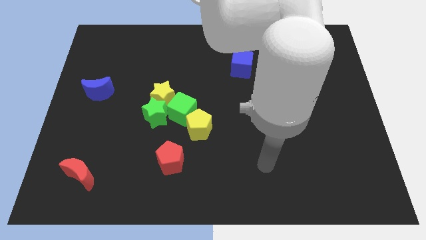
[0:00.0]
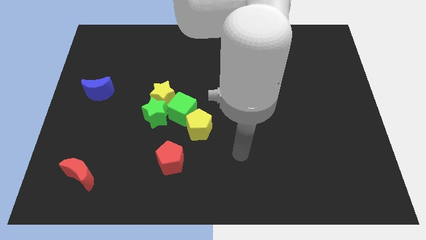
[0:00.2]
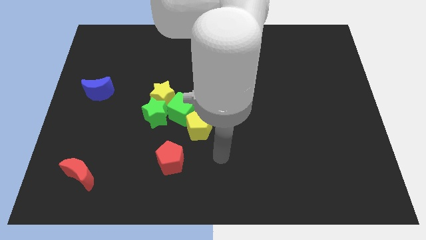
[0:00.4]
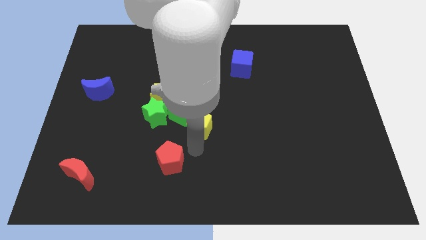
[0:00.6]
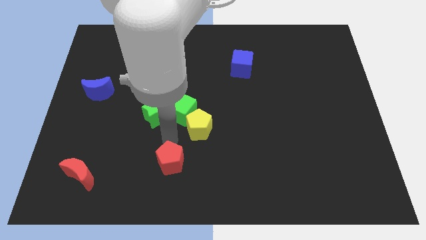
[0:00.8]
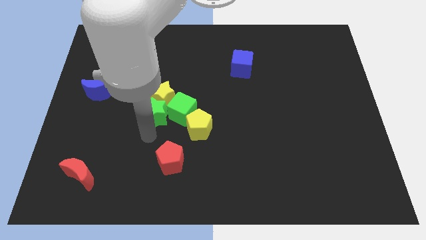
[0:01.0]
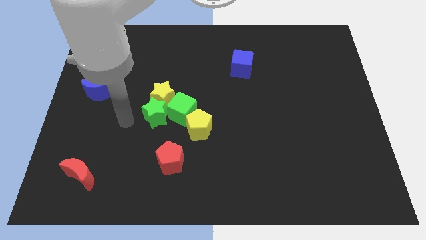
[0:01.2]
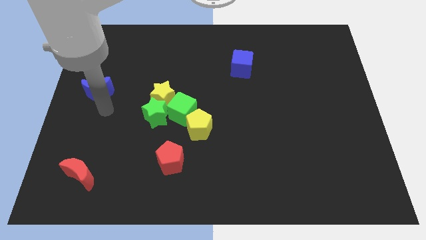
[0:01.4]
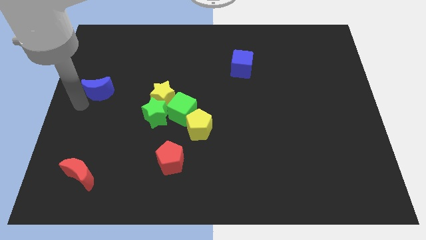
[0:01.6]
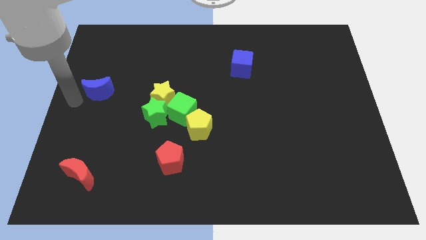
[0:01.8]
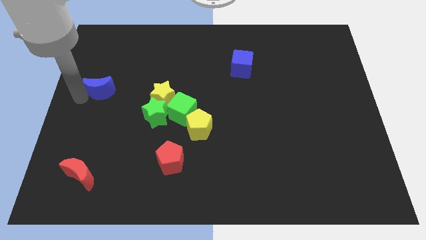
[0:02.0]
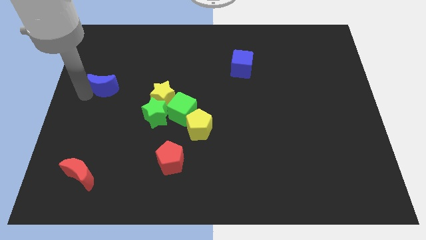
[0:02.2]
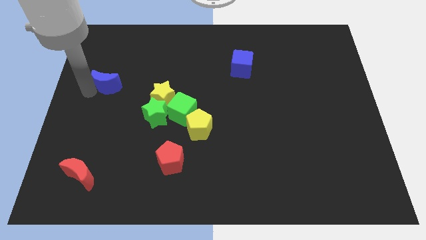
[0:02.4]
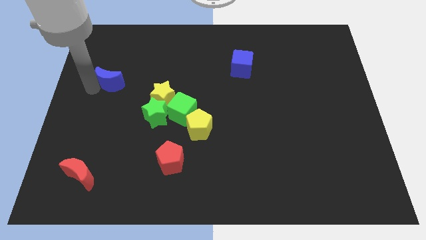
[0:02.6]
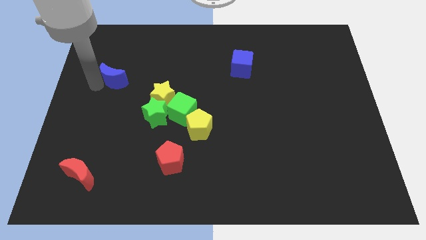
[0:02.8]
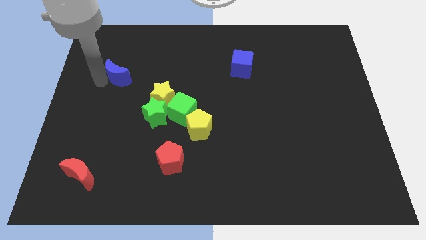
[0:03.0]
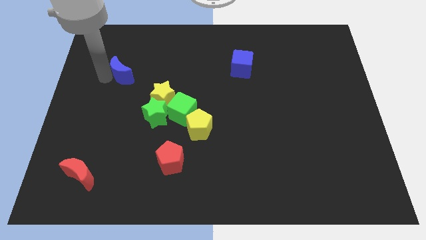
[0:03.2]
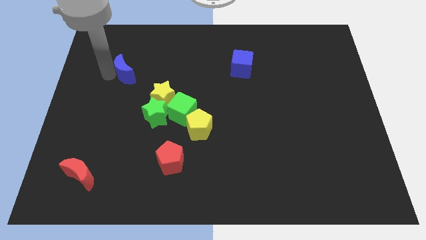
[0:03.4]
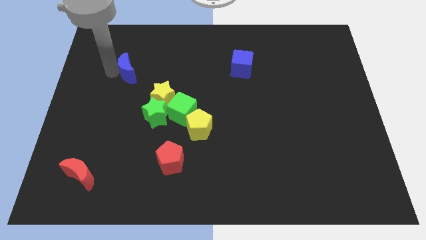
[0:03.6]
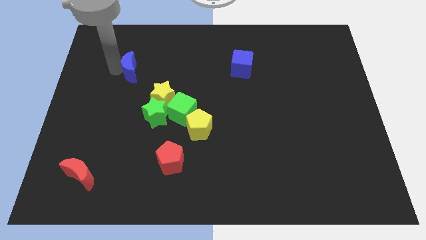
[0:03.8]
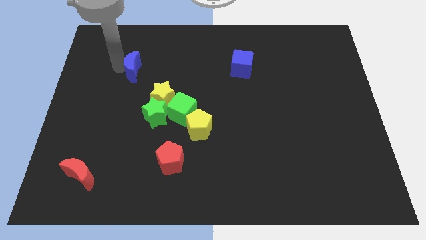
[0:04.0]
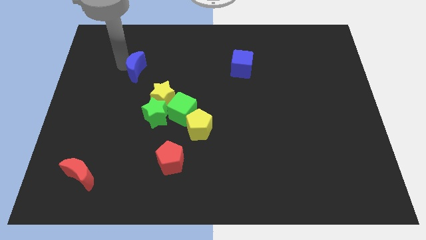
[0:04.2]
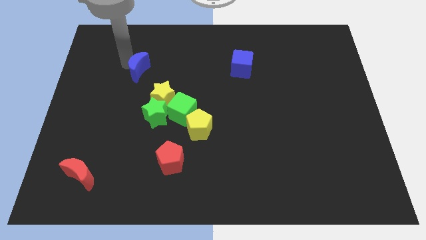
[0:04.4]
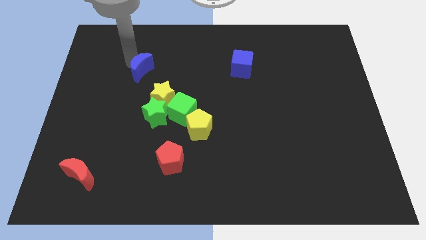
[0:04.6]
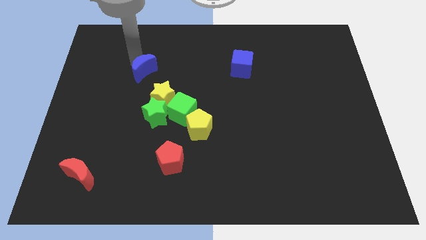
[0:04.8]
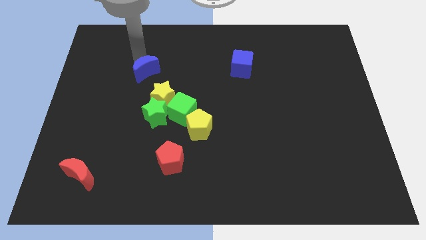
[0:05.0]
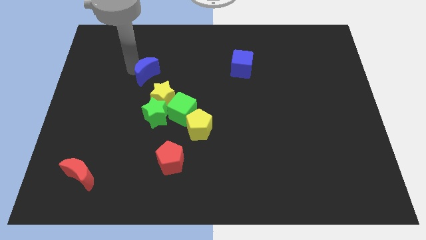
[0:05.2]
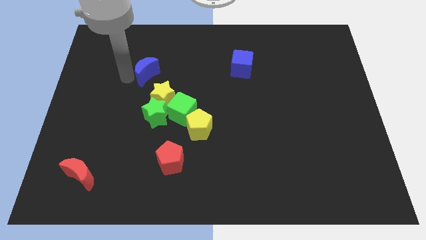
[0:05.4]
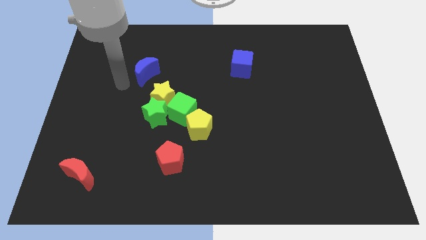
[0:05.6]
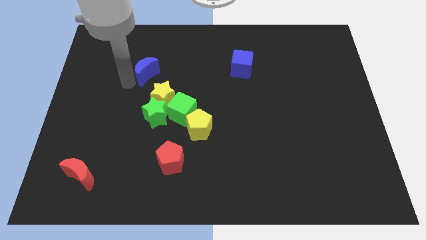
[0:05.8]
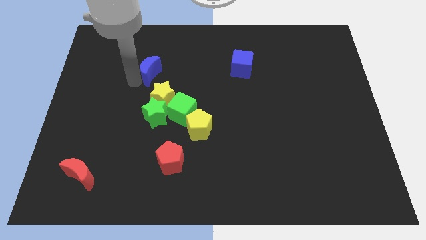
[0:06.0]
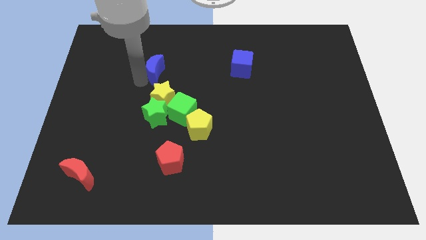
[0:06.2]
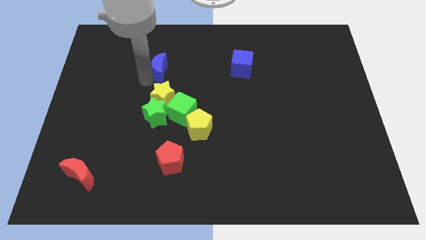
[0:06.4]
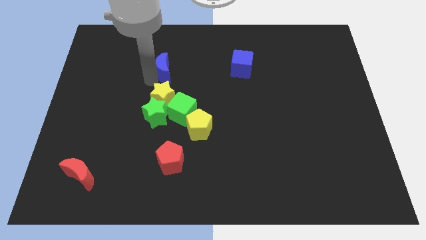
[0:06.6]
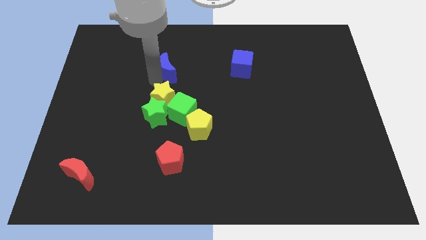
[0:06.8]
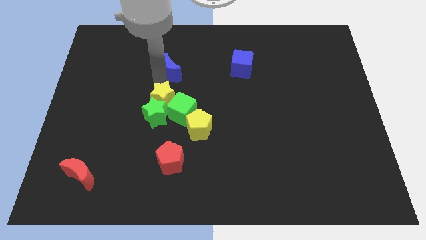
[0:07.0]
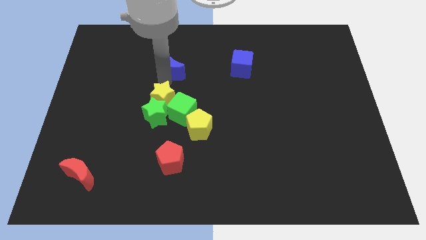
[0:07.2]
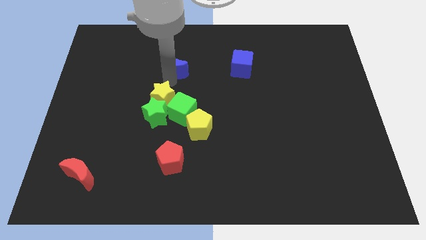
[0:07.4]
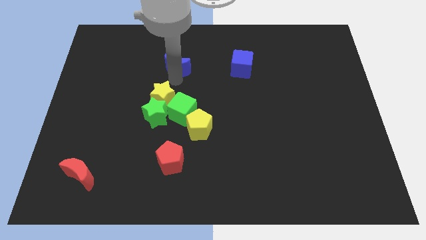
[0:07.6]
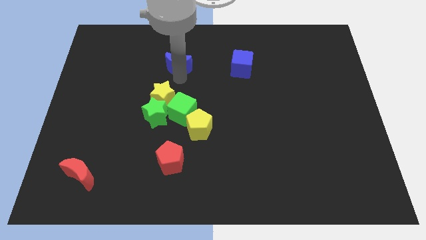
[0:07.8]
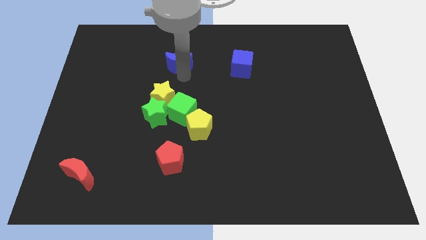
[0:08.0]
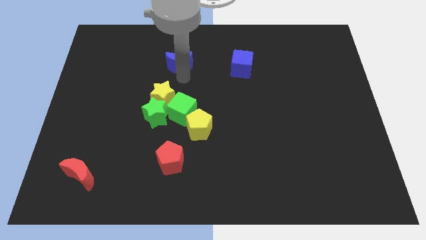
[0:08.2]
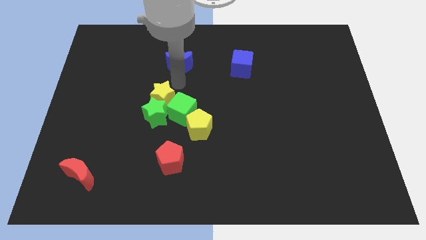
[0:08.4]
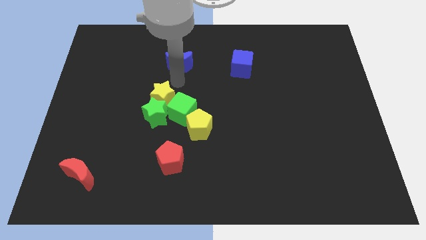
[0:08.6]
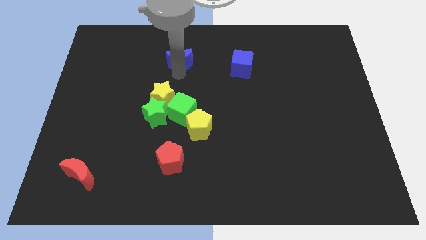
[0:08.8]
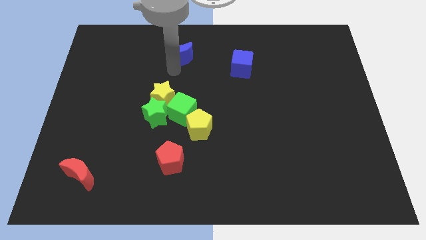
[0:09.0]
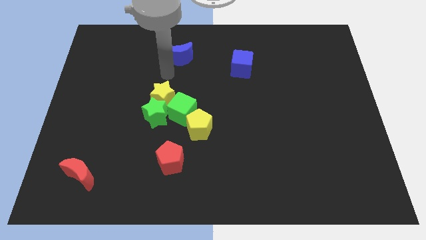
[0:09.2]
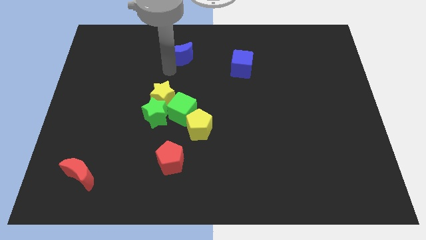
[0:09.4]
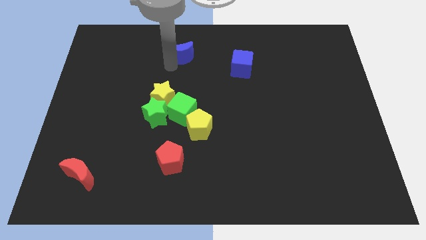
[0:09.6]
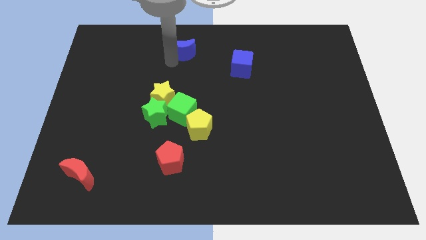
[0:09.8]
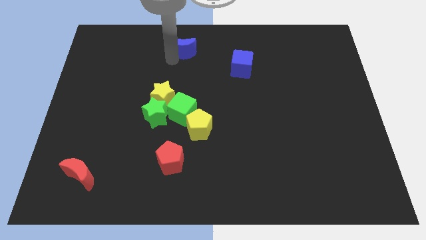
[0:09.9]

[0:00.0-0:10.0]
push the blue moon to the top

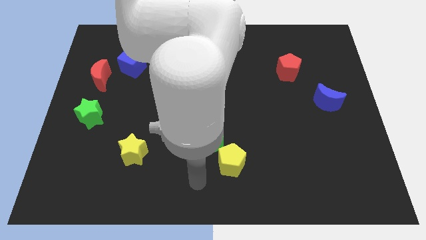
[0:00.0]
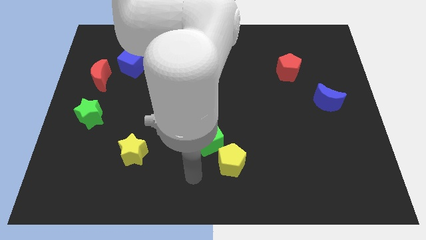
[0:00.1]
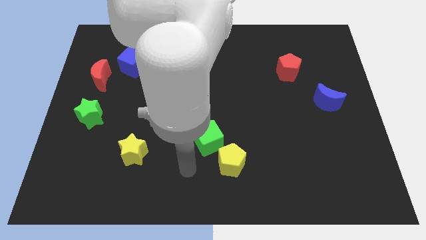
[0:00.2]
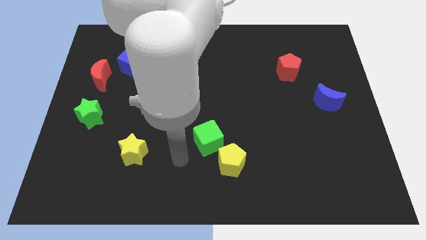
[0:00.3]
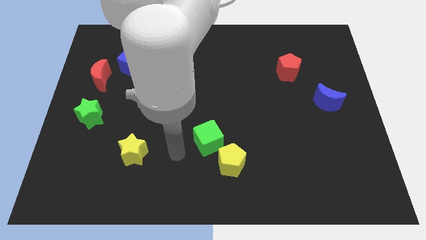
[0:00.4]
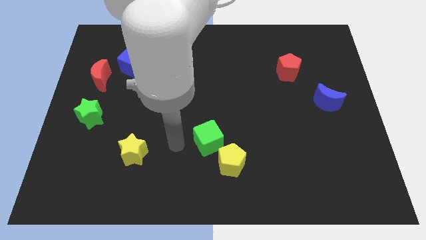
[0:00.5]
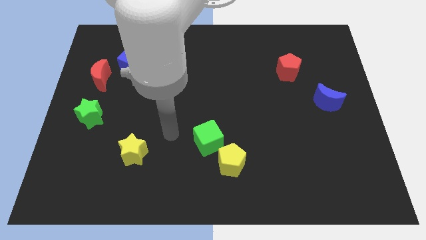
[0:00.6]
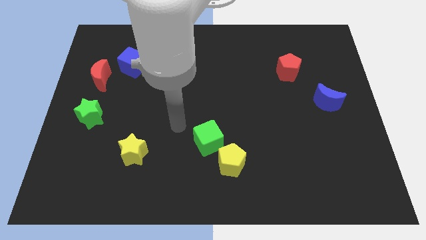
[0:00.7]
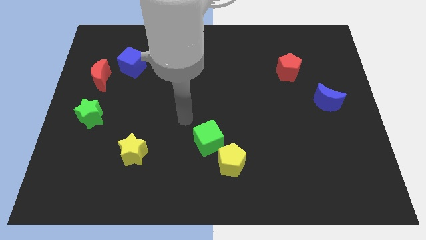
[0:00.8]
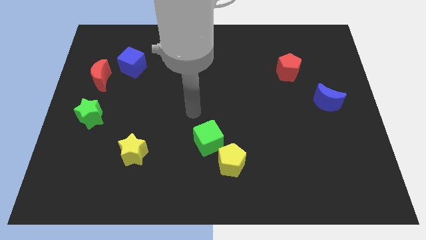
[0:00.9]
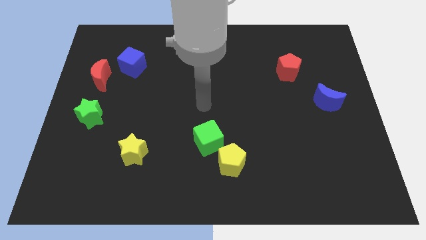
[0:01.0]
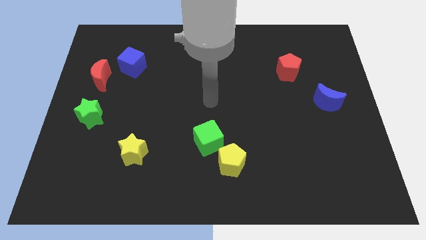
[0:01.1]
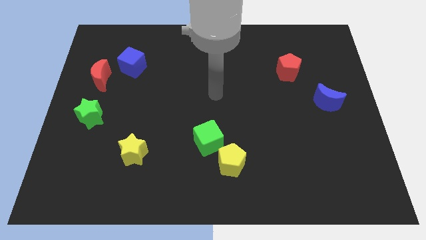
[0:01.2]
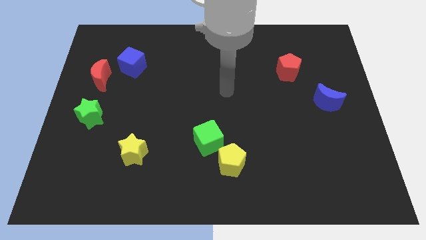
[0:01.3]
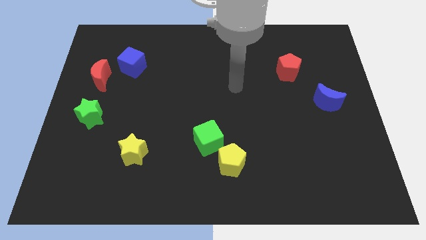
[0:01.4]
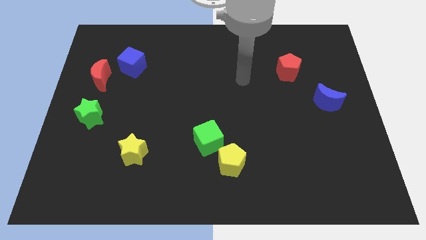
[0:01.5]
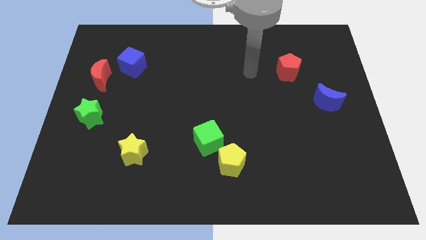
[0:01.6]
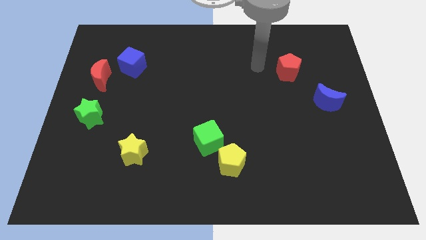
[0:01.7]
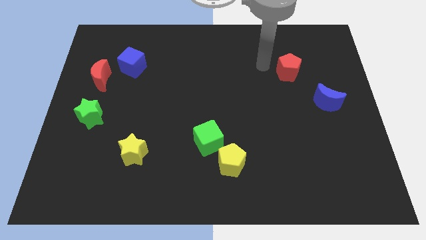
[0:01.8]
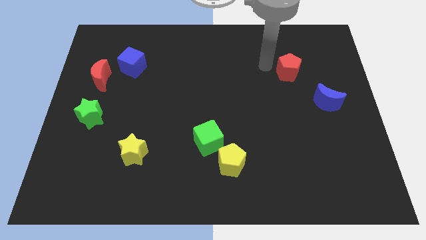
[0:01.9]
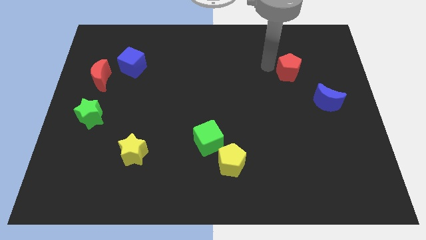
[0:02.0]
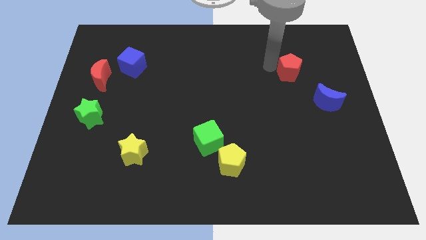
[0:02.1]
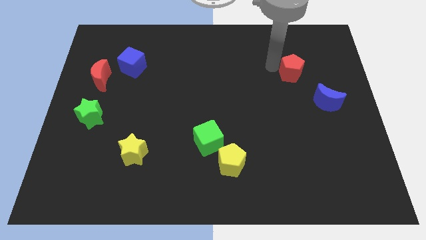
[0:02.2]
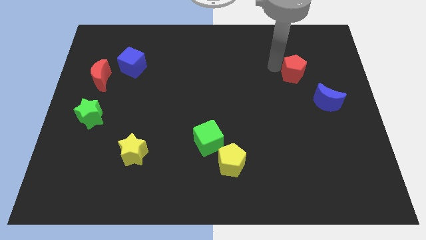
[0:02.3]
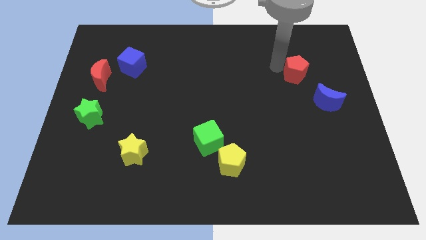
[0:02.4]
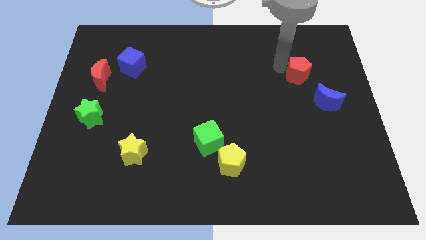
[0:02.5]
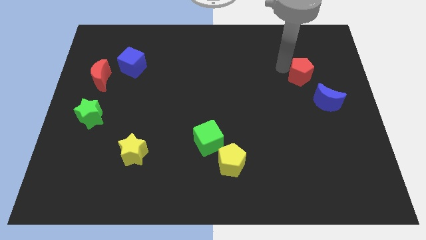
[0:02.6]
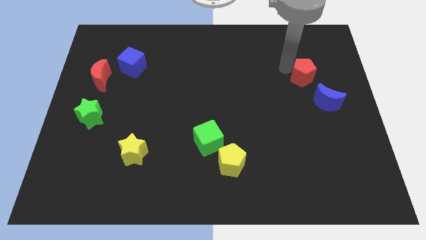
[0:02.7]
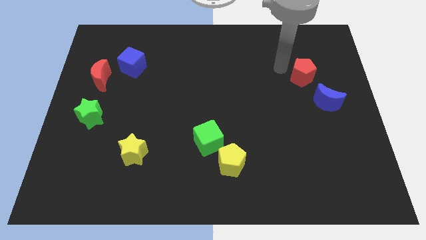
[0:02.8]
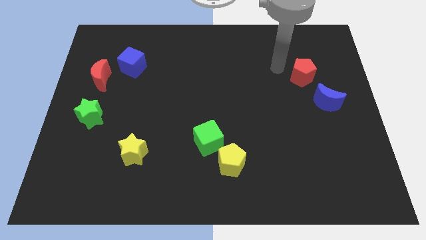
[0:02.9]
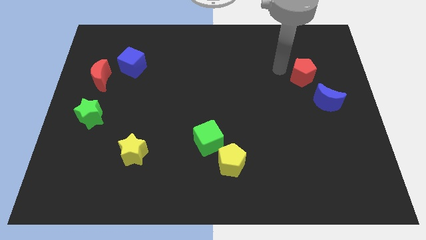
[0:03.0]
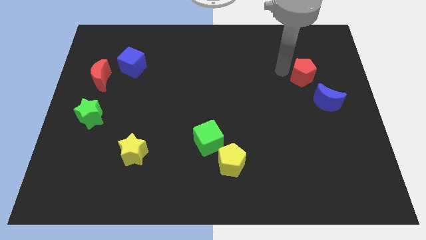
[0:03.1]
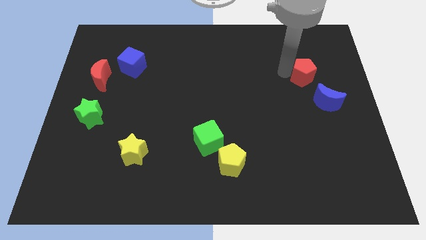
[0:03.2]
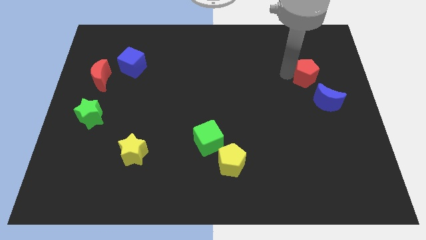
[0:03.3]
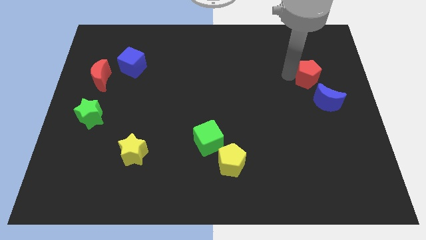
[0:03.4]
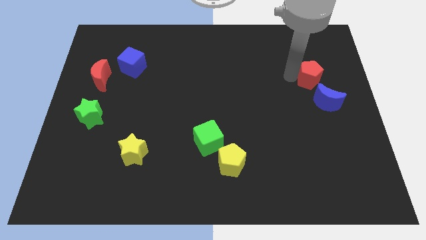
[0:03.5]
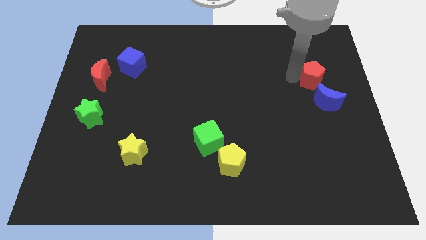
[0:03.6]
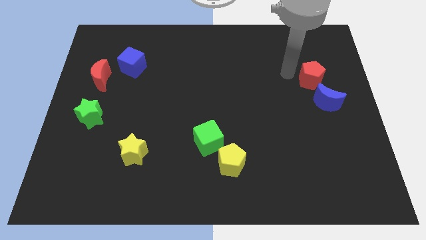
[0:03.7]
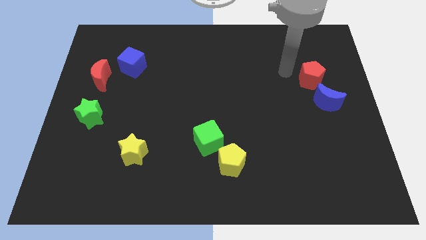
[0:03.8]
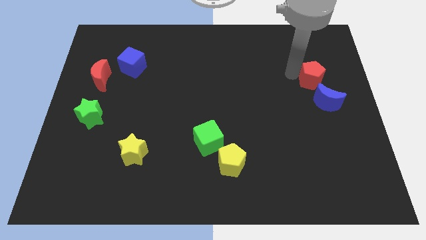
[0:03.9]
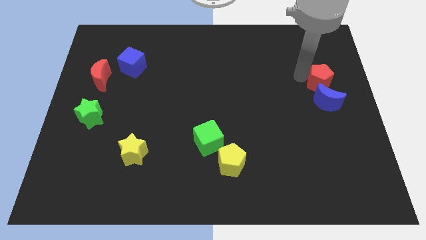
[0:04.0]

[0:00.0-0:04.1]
slide the red pentagon to the right side
